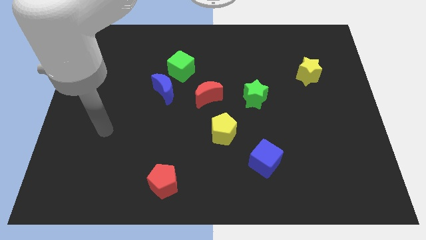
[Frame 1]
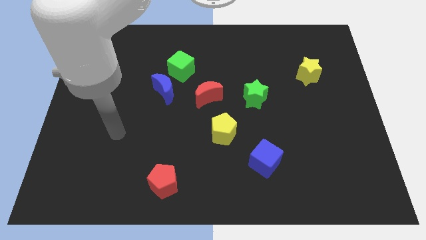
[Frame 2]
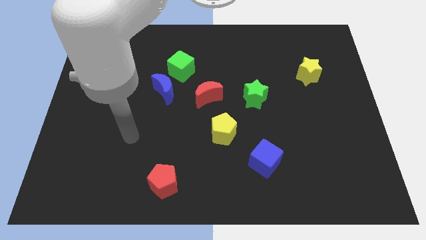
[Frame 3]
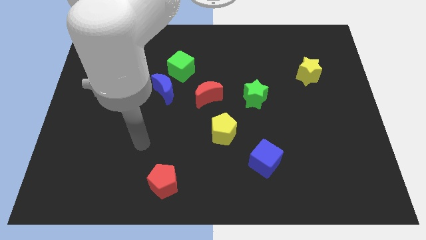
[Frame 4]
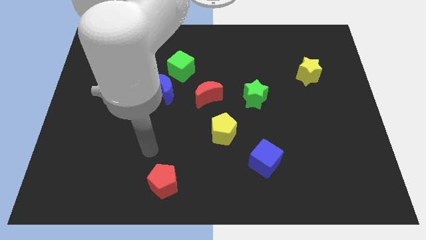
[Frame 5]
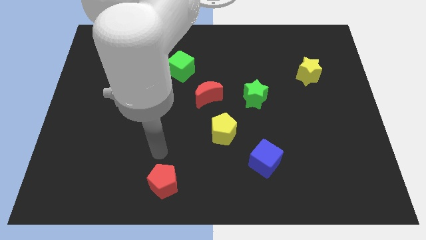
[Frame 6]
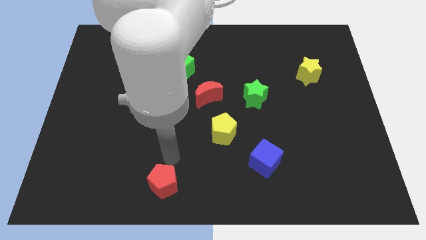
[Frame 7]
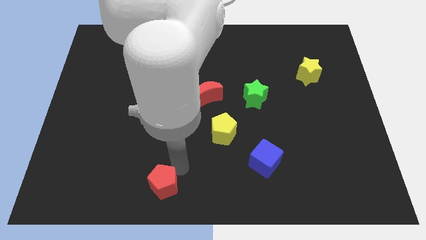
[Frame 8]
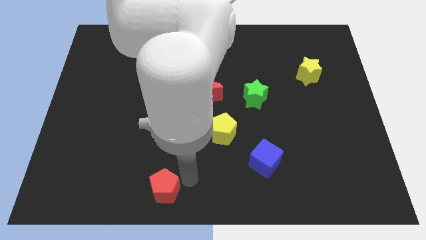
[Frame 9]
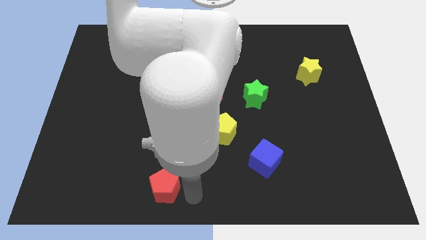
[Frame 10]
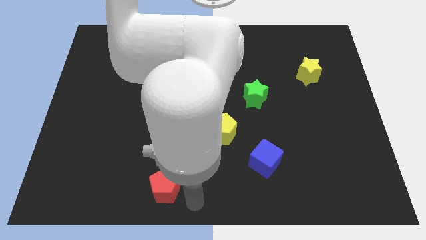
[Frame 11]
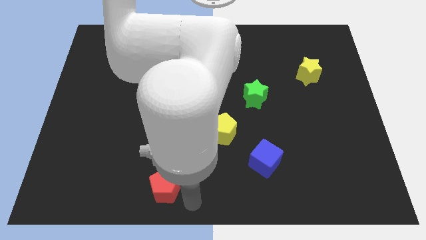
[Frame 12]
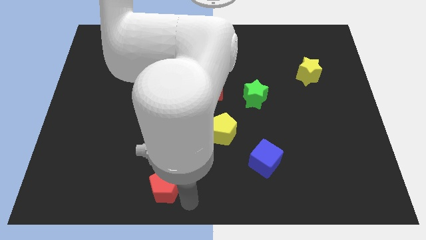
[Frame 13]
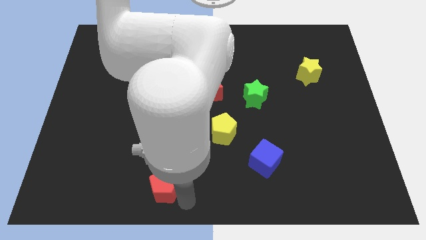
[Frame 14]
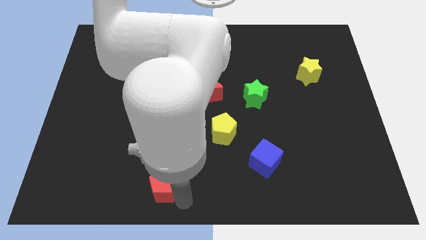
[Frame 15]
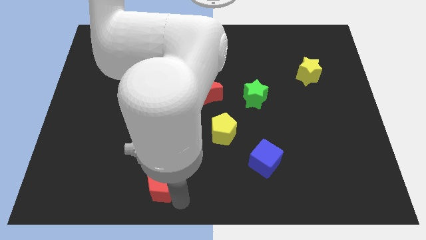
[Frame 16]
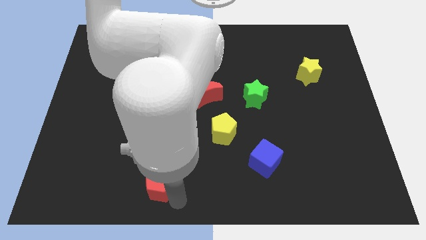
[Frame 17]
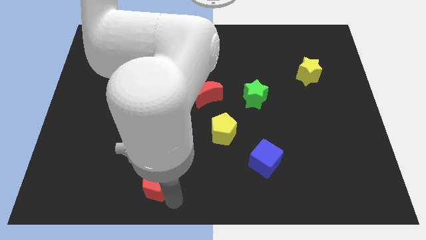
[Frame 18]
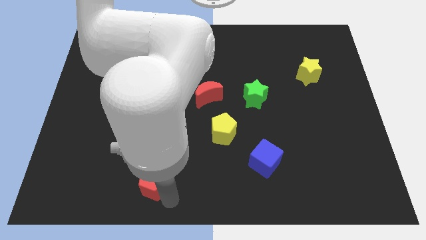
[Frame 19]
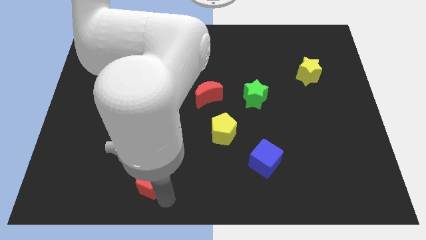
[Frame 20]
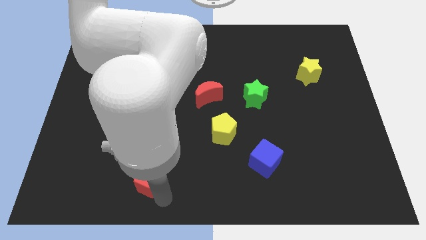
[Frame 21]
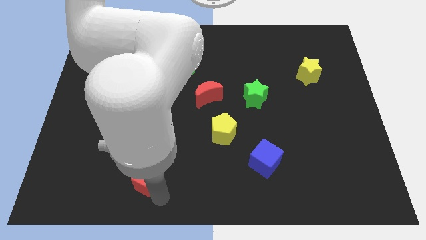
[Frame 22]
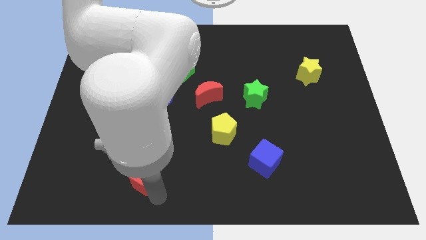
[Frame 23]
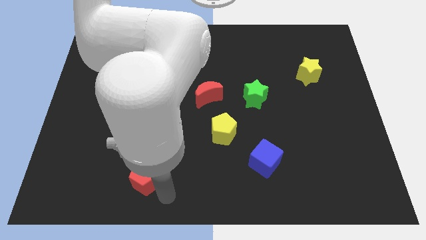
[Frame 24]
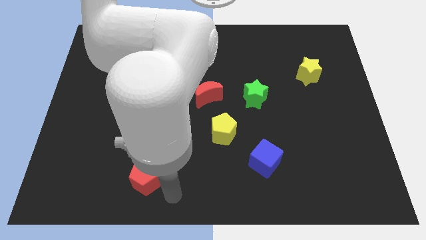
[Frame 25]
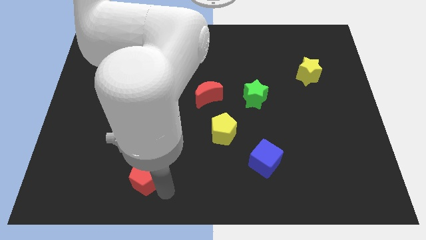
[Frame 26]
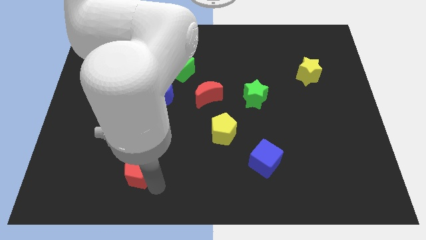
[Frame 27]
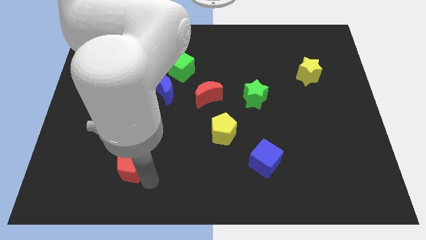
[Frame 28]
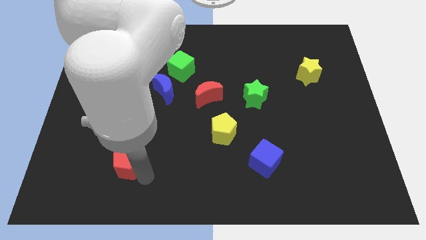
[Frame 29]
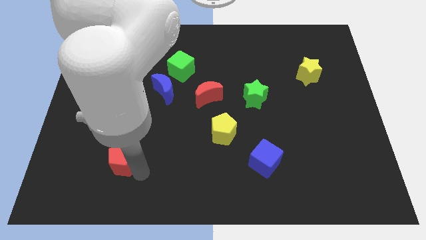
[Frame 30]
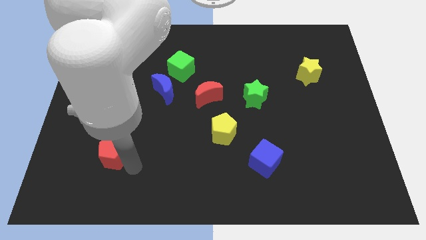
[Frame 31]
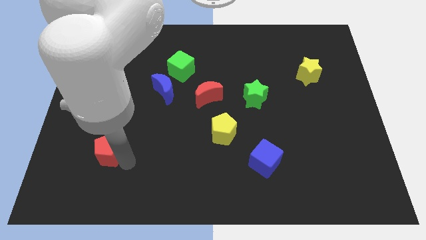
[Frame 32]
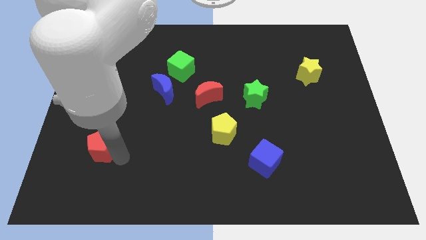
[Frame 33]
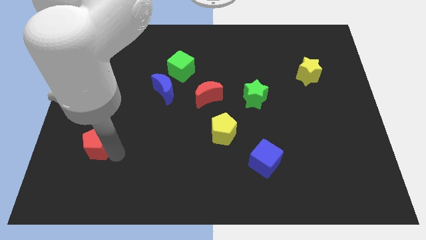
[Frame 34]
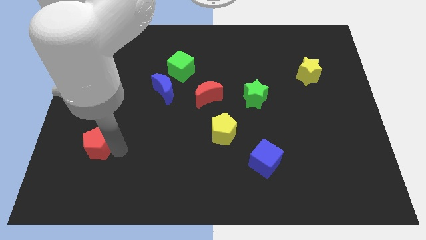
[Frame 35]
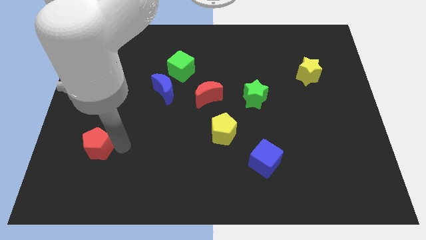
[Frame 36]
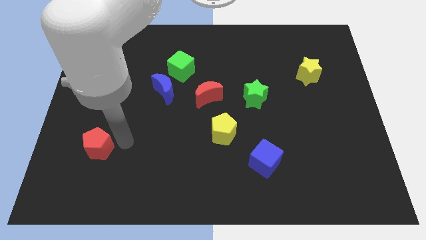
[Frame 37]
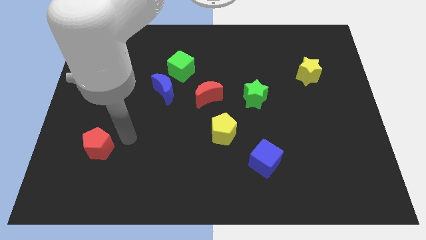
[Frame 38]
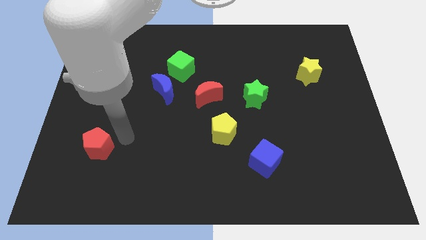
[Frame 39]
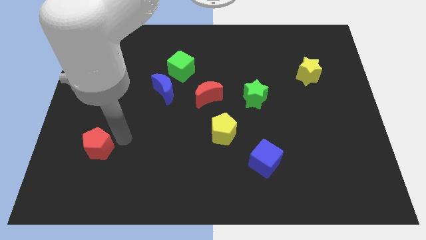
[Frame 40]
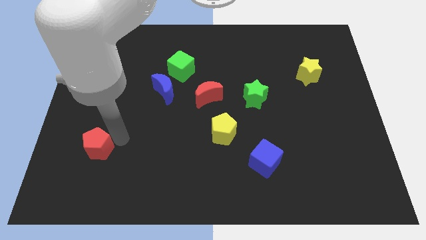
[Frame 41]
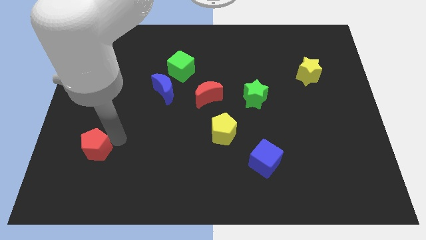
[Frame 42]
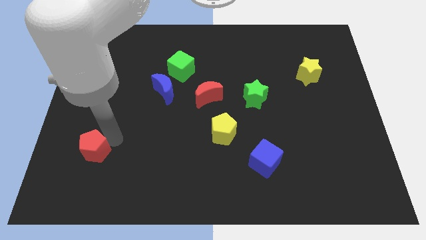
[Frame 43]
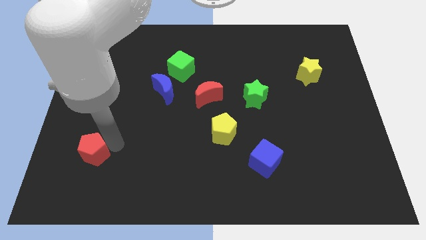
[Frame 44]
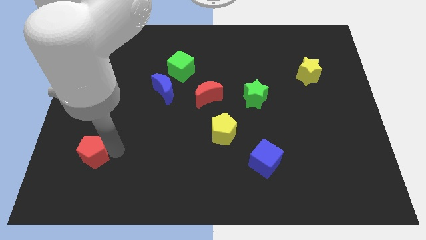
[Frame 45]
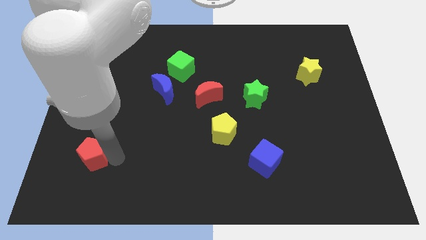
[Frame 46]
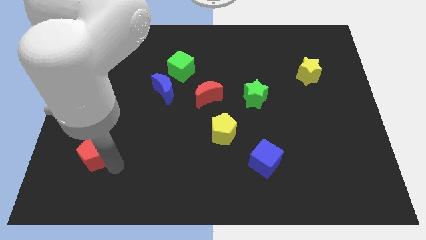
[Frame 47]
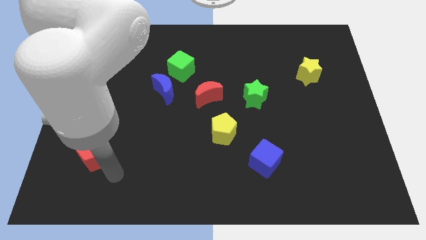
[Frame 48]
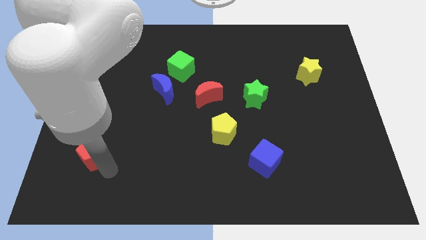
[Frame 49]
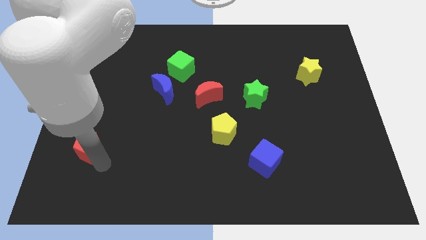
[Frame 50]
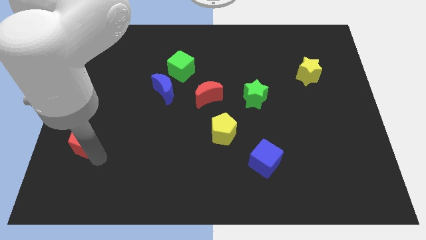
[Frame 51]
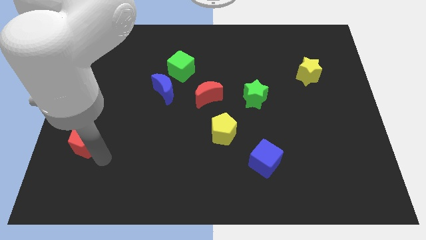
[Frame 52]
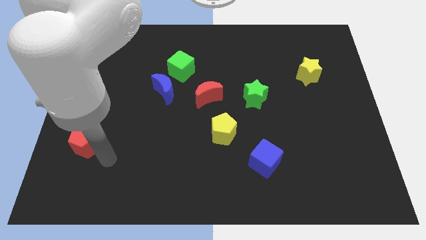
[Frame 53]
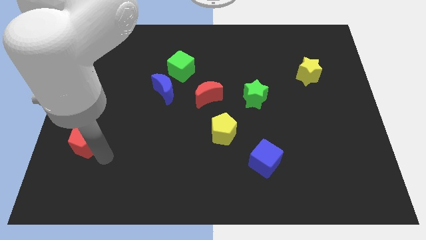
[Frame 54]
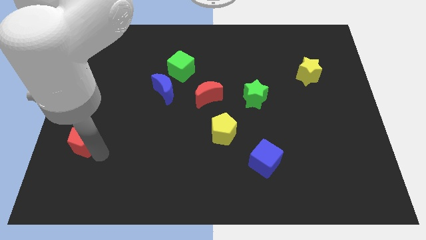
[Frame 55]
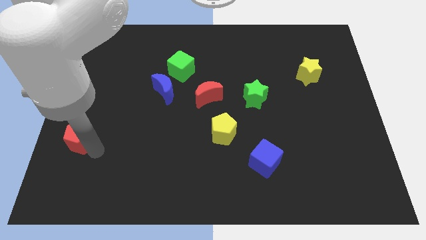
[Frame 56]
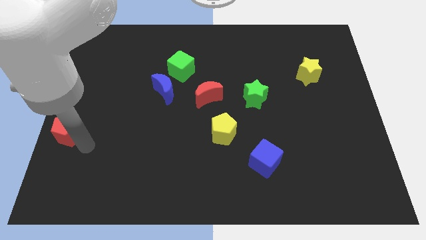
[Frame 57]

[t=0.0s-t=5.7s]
push the red pentagon to the left side of the board
